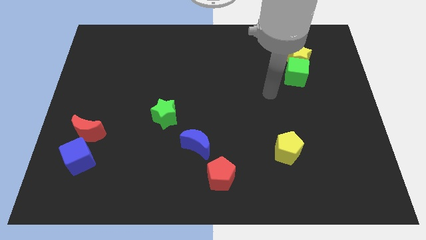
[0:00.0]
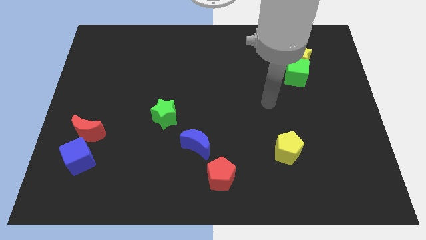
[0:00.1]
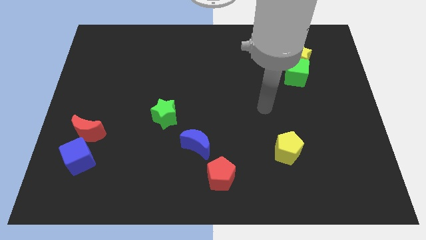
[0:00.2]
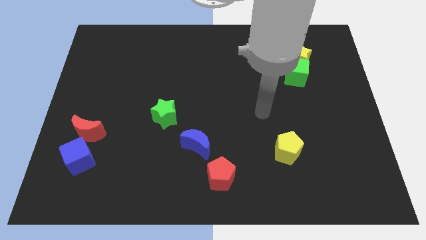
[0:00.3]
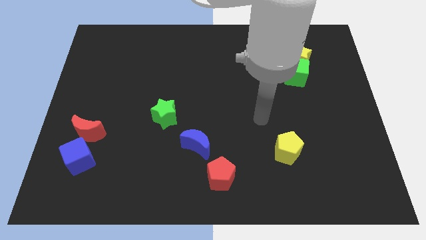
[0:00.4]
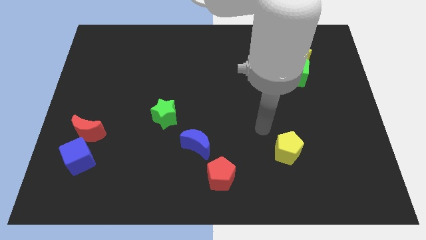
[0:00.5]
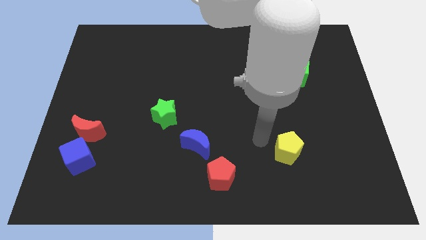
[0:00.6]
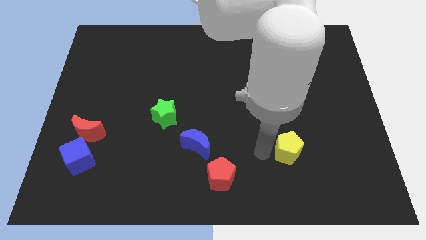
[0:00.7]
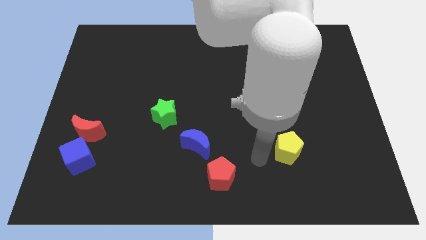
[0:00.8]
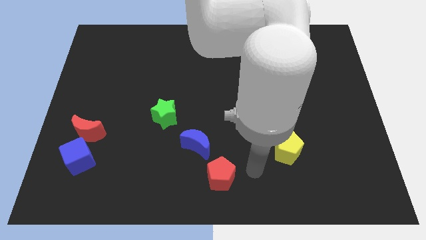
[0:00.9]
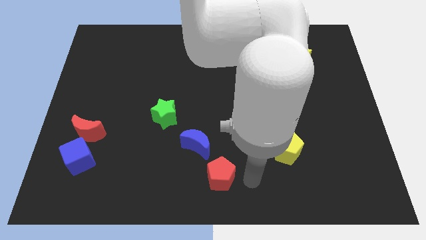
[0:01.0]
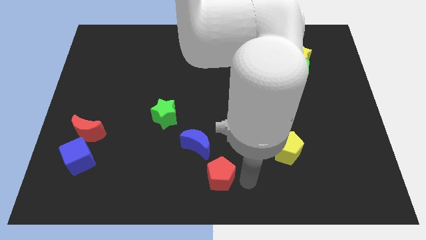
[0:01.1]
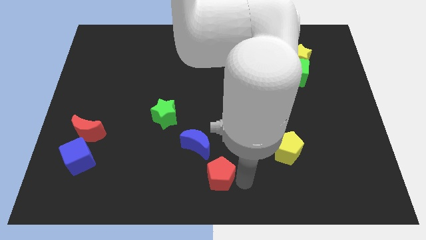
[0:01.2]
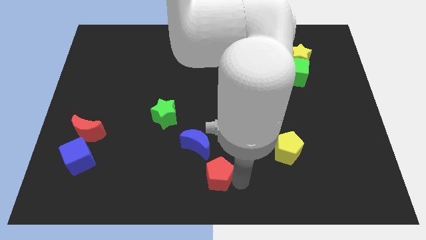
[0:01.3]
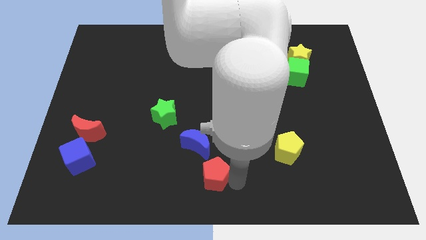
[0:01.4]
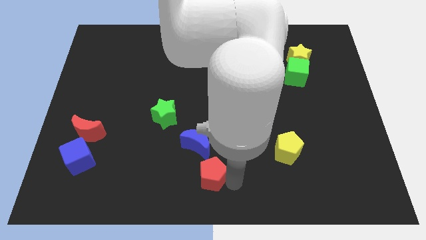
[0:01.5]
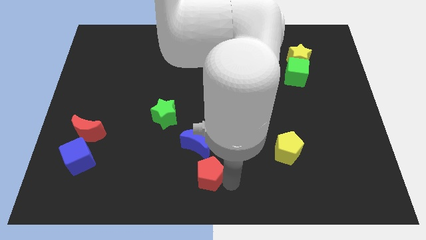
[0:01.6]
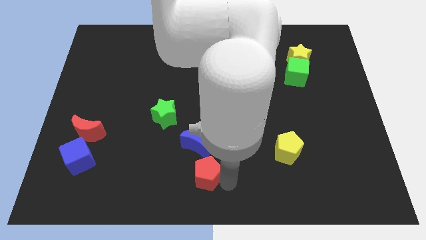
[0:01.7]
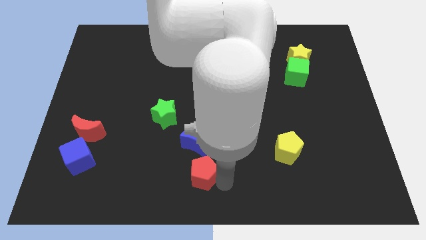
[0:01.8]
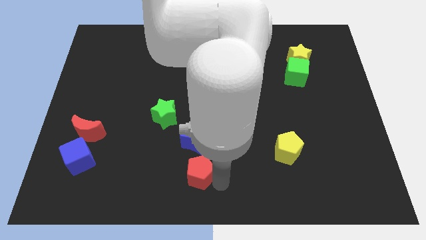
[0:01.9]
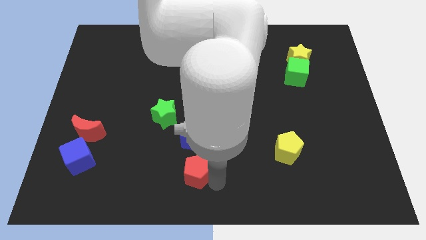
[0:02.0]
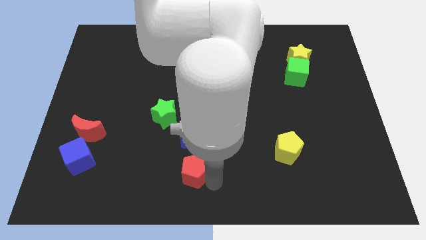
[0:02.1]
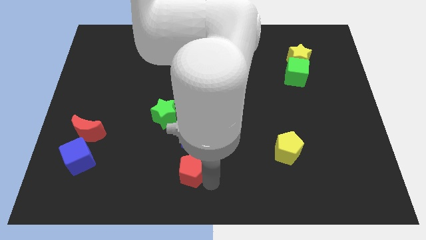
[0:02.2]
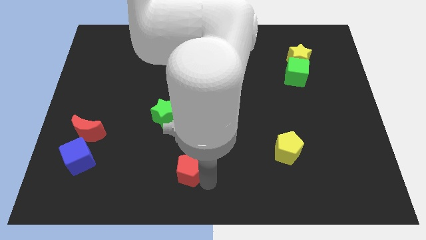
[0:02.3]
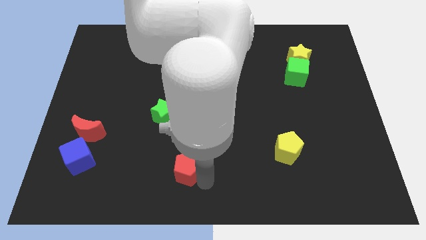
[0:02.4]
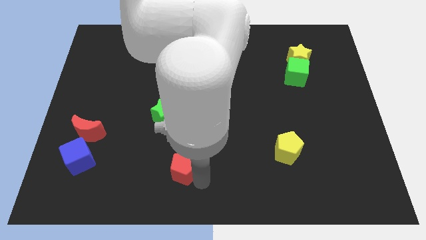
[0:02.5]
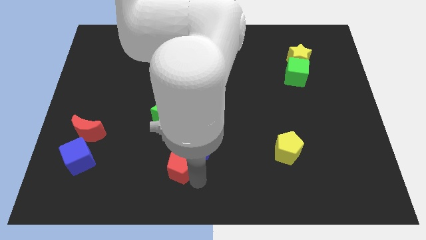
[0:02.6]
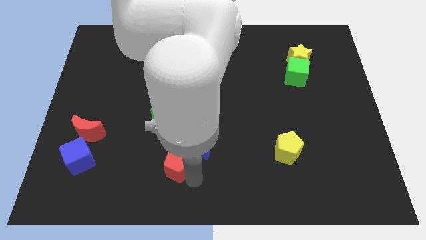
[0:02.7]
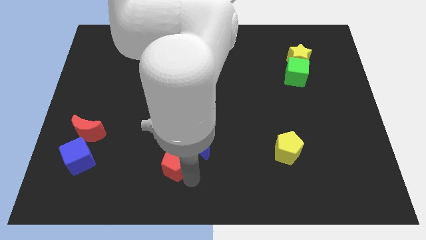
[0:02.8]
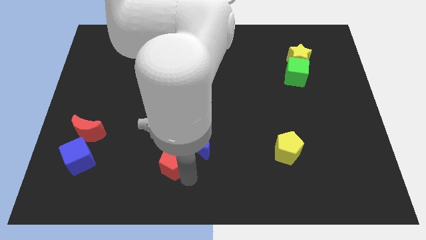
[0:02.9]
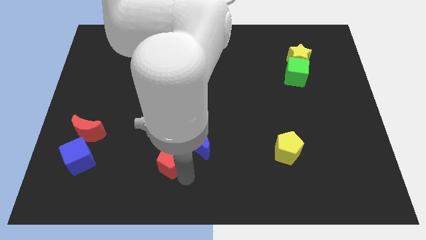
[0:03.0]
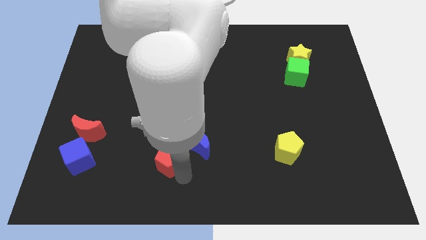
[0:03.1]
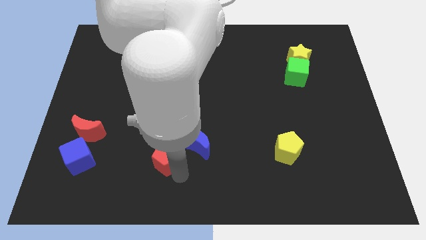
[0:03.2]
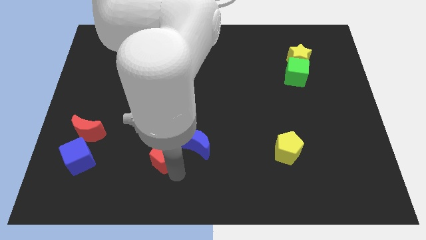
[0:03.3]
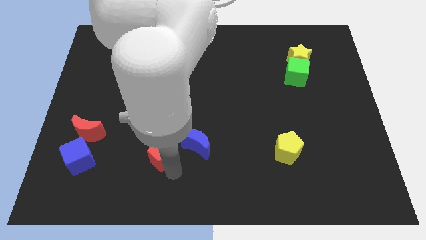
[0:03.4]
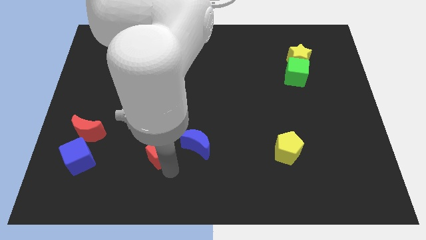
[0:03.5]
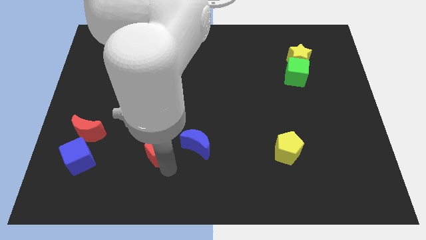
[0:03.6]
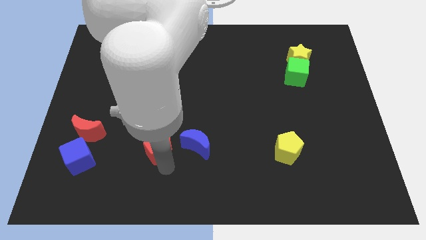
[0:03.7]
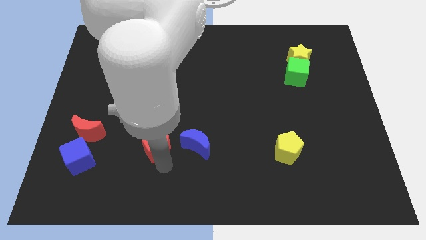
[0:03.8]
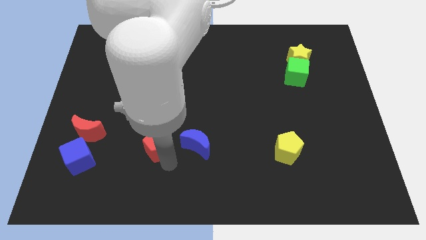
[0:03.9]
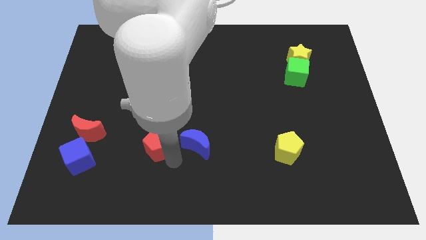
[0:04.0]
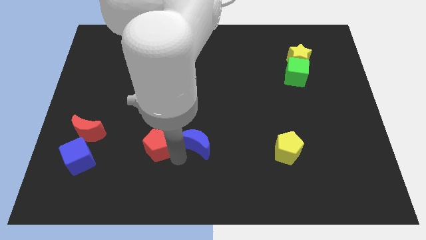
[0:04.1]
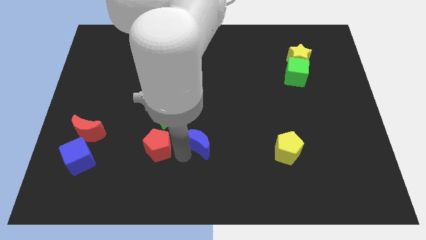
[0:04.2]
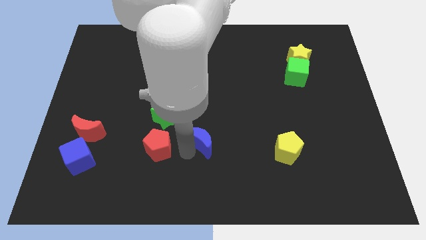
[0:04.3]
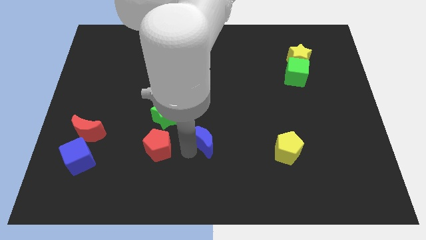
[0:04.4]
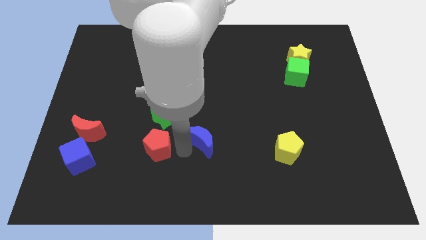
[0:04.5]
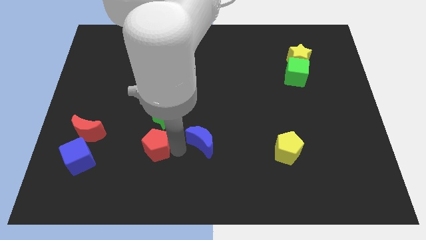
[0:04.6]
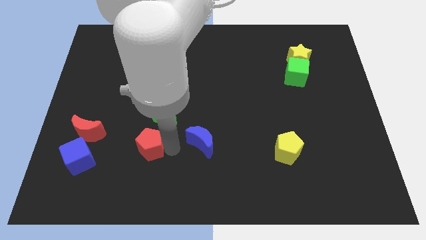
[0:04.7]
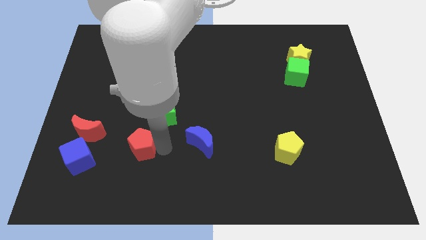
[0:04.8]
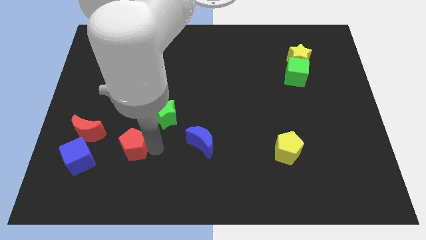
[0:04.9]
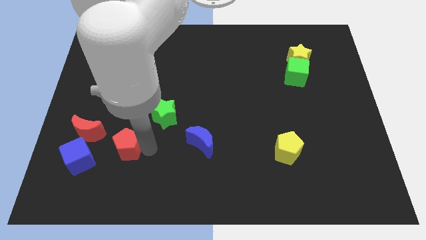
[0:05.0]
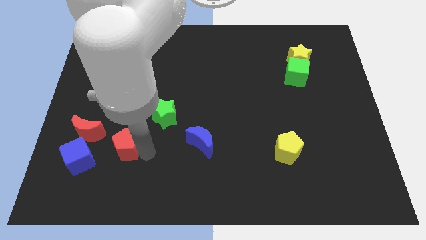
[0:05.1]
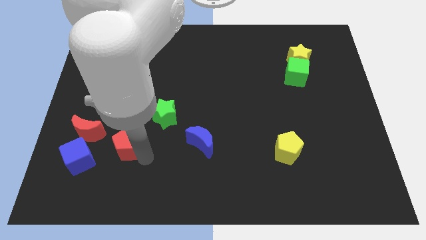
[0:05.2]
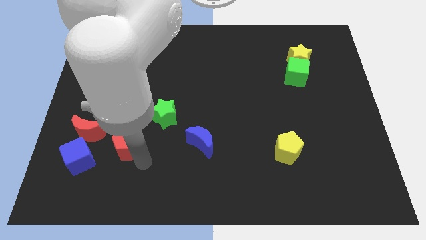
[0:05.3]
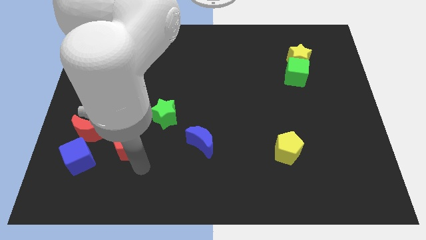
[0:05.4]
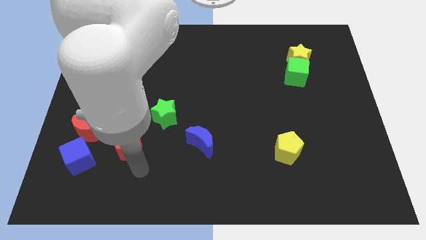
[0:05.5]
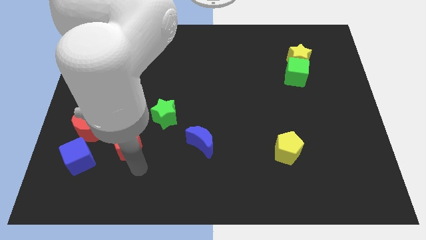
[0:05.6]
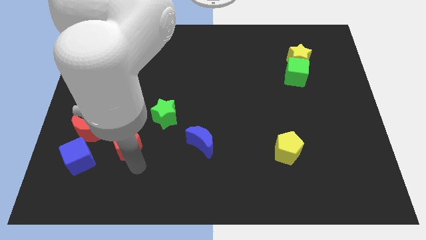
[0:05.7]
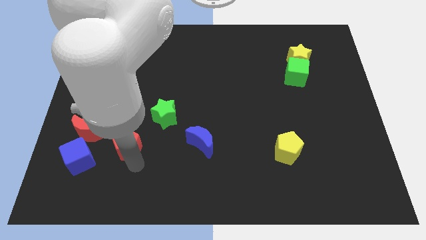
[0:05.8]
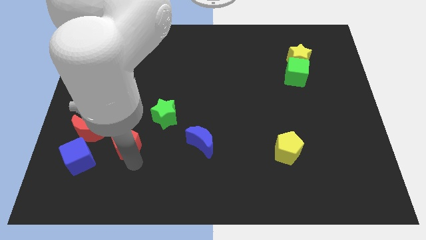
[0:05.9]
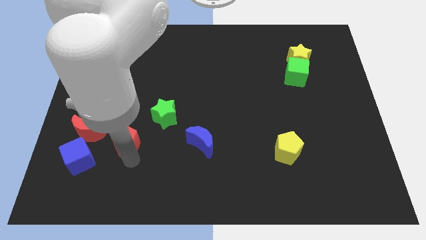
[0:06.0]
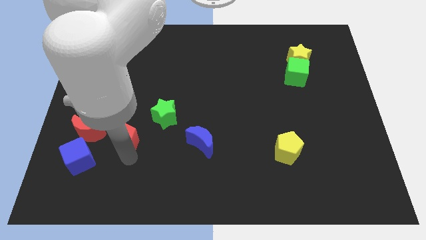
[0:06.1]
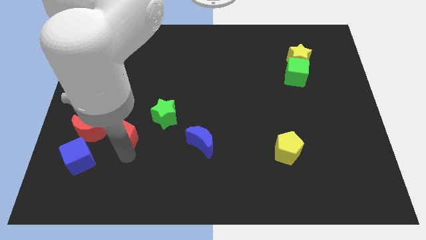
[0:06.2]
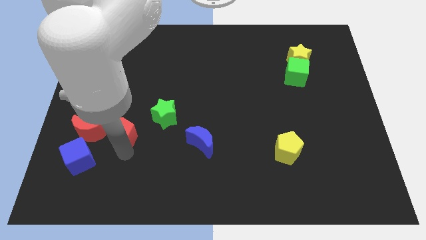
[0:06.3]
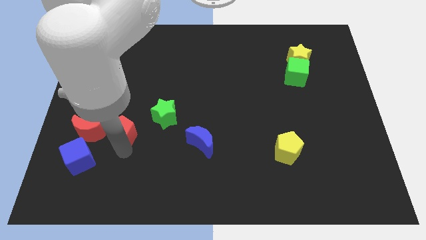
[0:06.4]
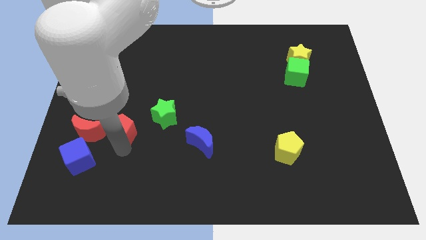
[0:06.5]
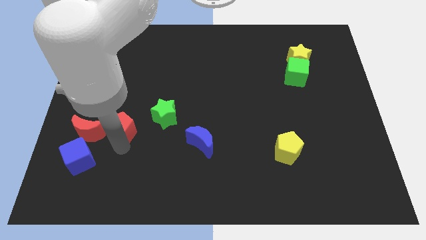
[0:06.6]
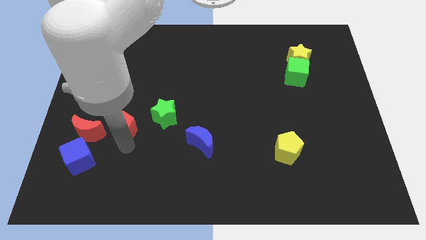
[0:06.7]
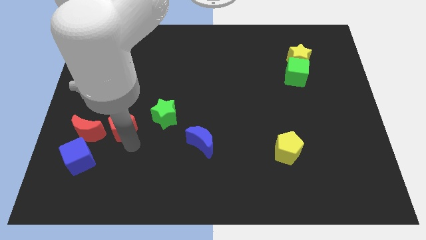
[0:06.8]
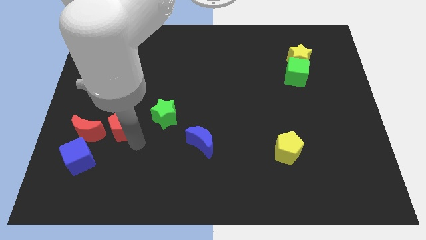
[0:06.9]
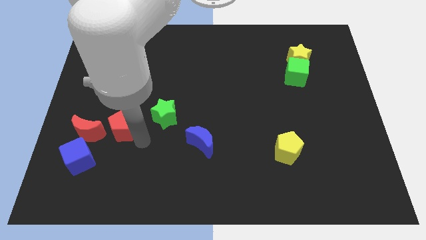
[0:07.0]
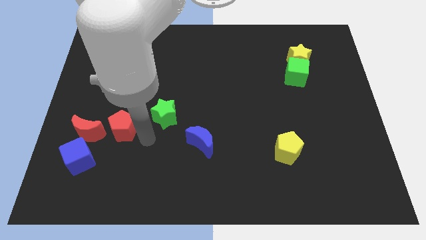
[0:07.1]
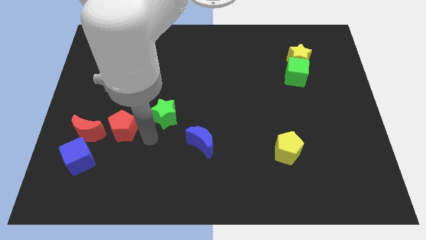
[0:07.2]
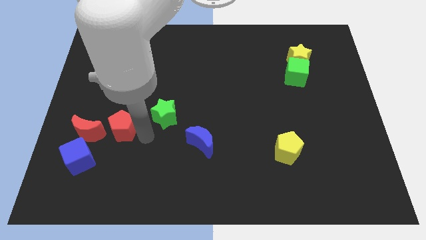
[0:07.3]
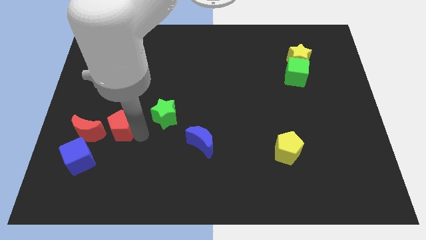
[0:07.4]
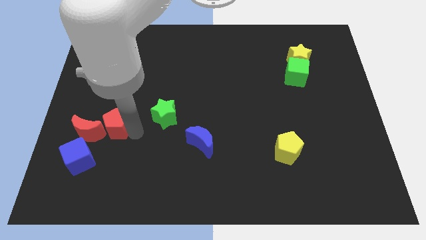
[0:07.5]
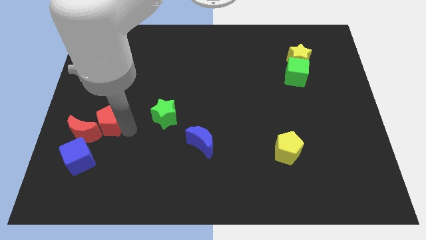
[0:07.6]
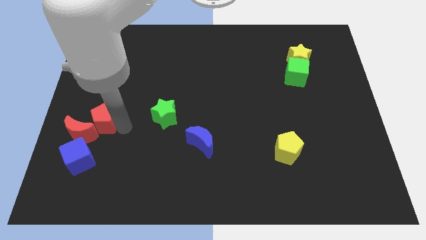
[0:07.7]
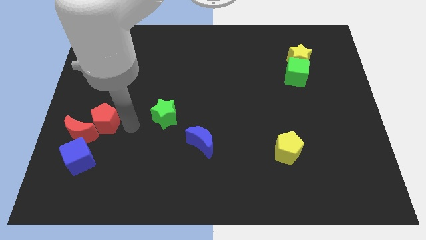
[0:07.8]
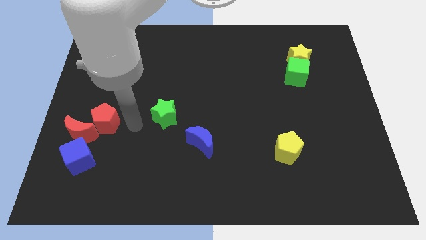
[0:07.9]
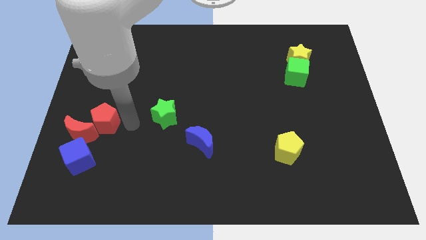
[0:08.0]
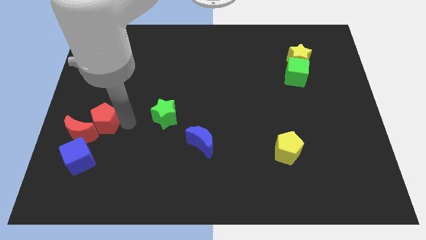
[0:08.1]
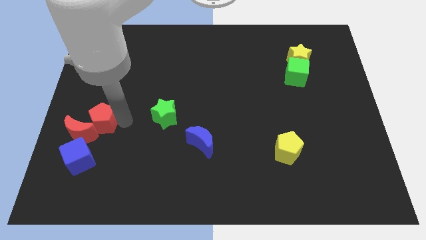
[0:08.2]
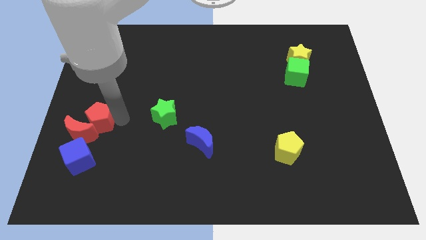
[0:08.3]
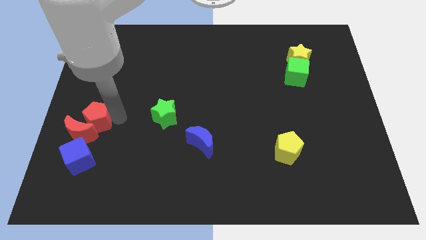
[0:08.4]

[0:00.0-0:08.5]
put the red pentagon to the left side of the board
